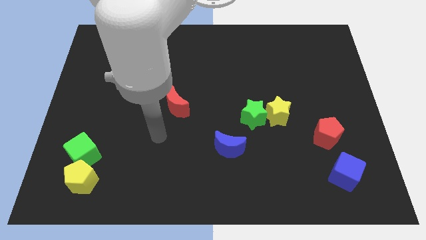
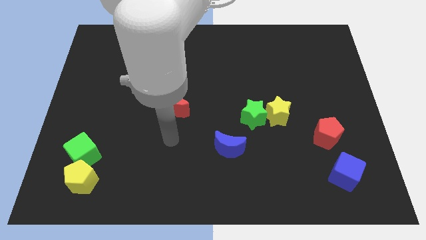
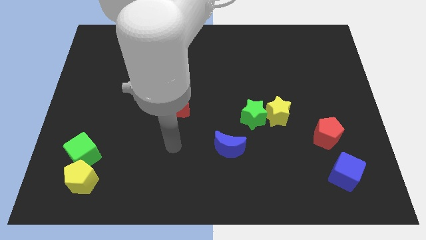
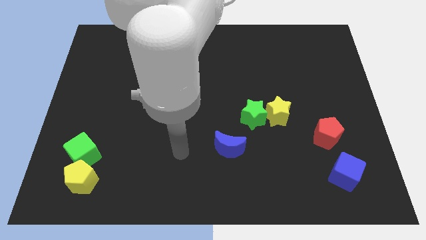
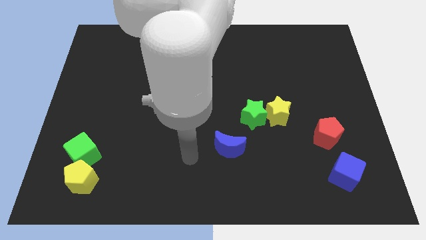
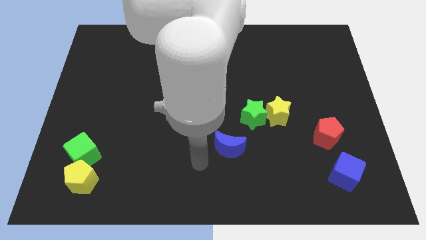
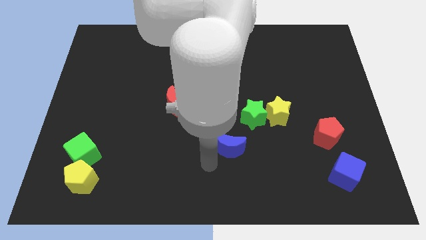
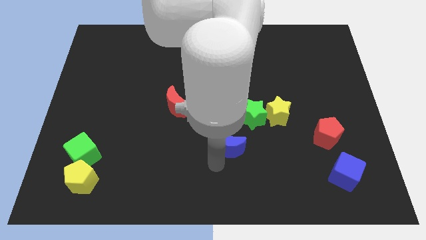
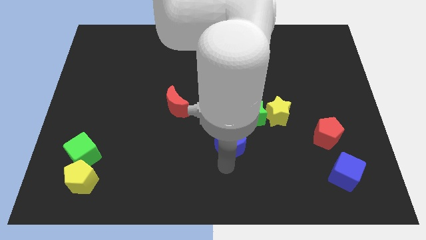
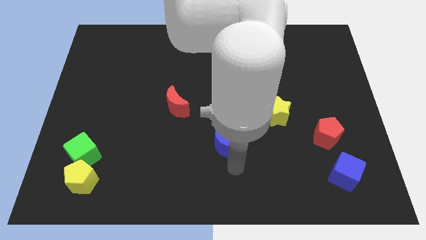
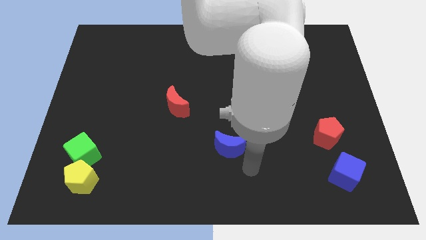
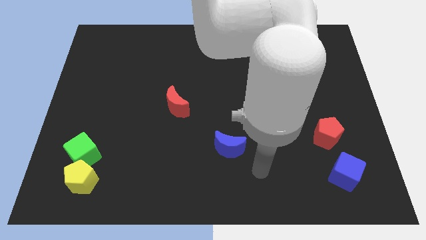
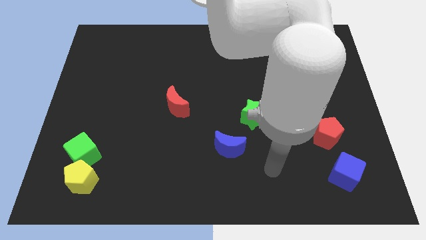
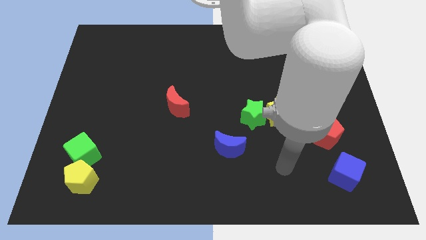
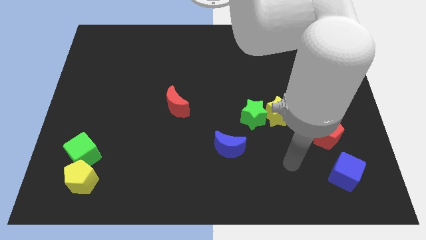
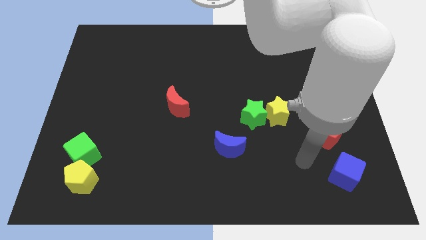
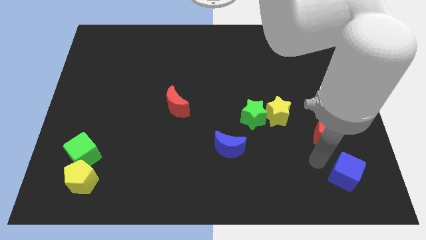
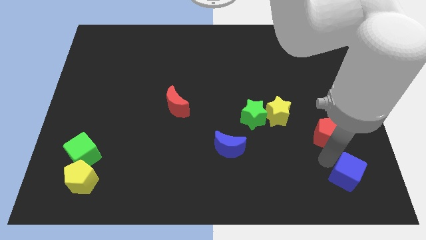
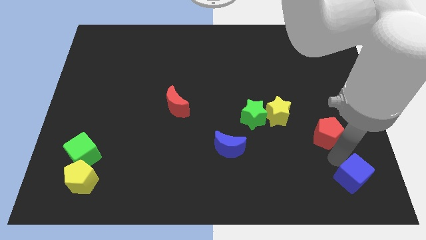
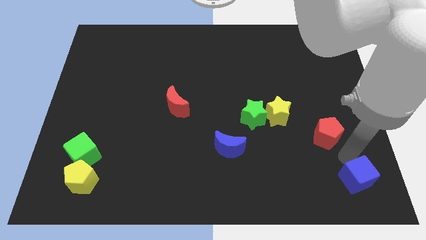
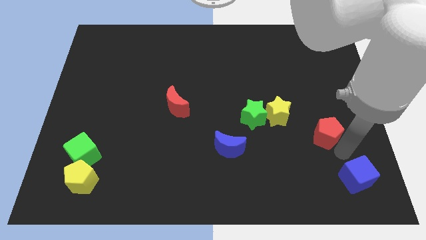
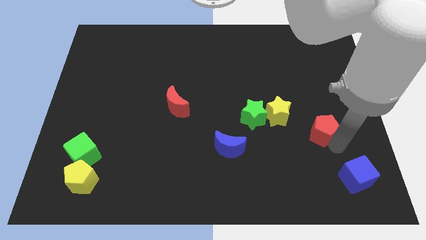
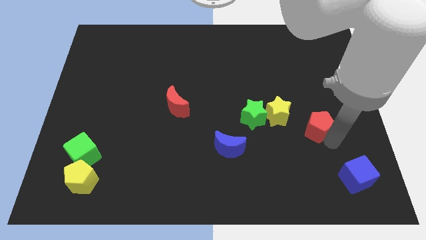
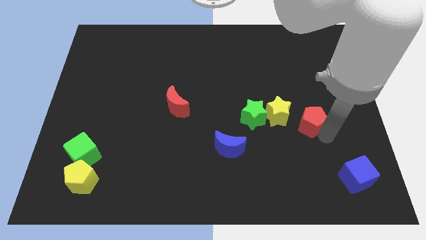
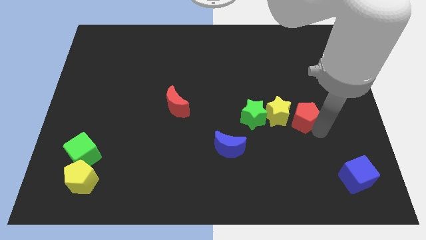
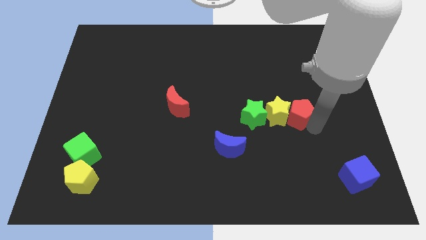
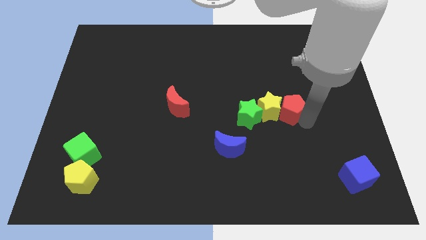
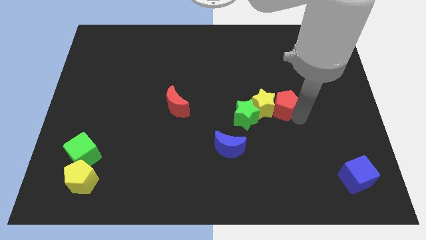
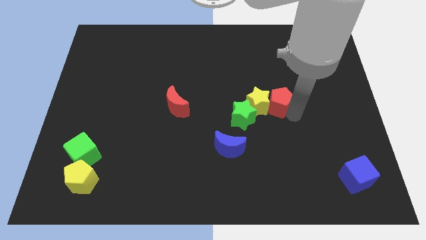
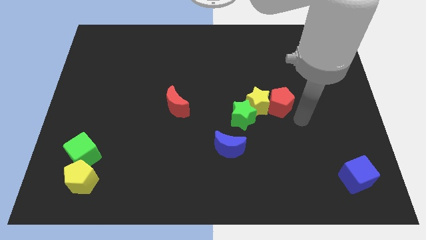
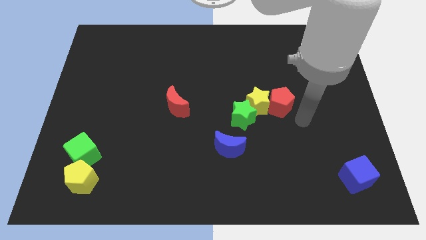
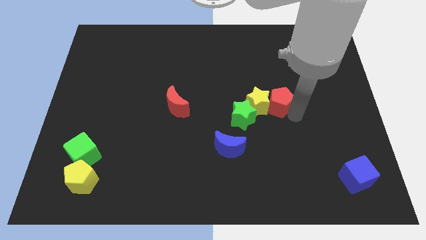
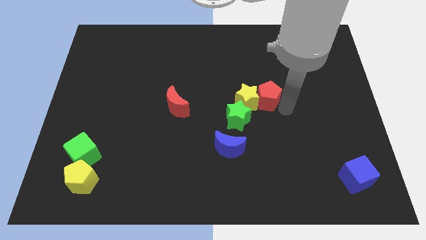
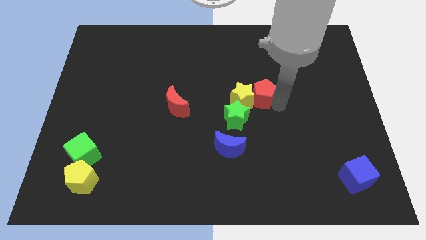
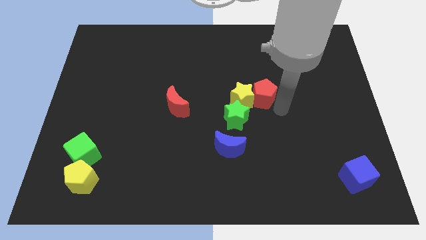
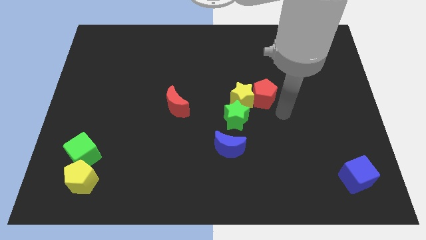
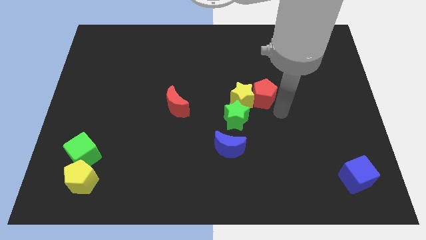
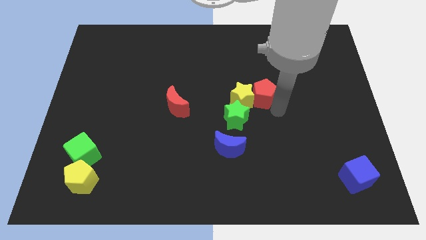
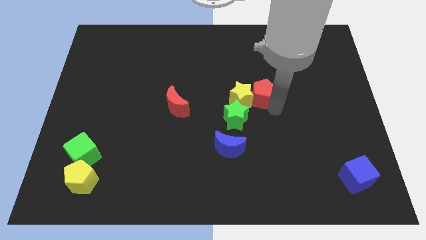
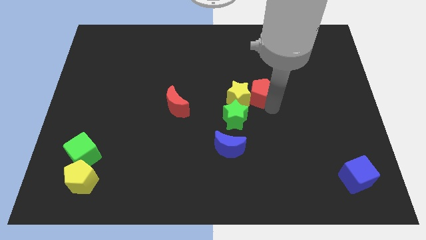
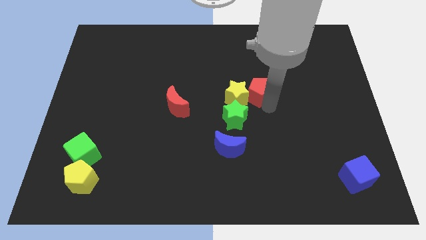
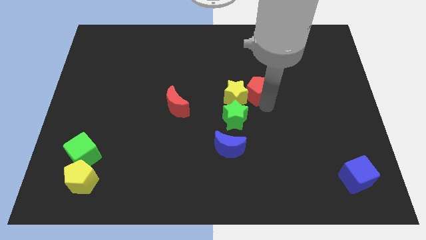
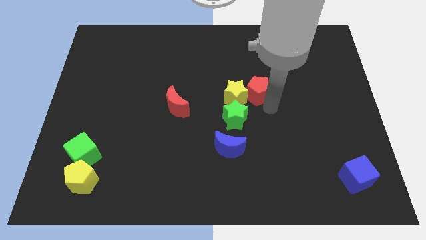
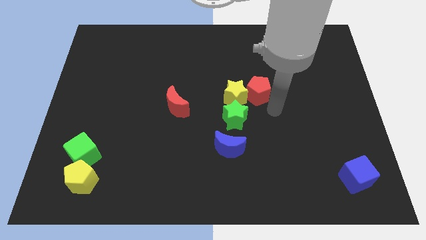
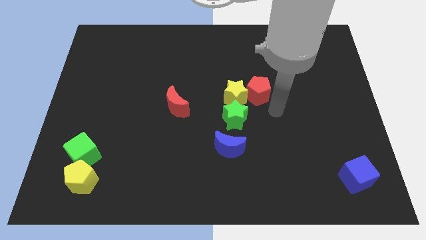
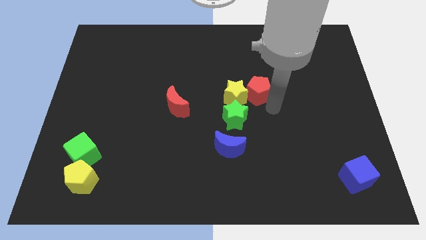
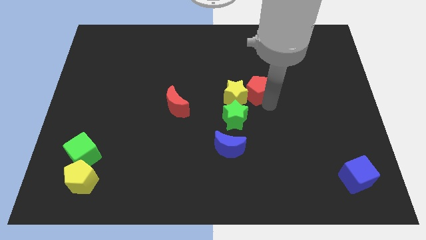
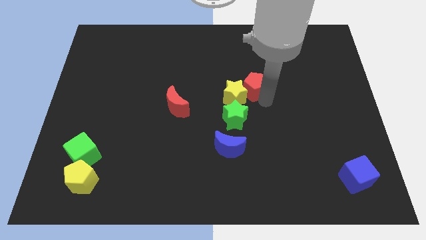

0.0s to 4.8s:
move the red pentagon diagonally up and left

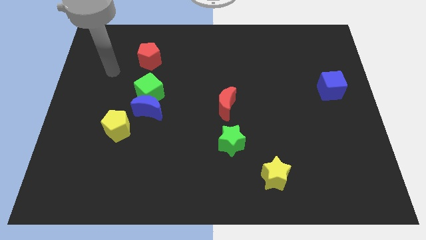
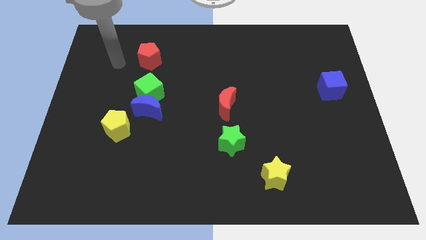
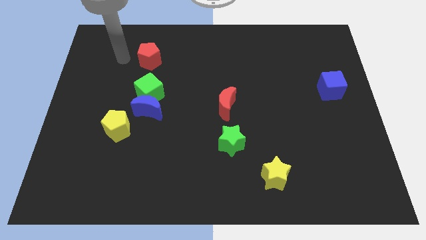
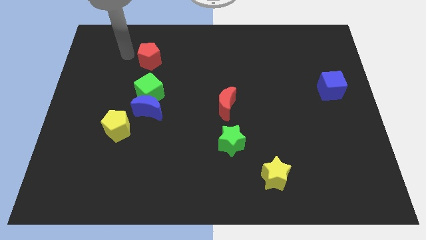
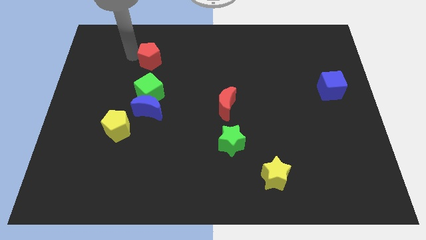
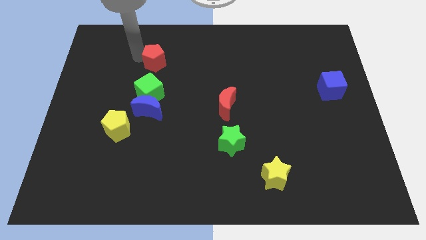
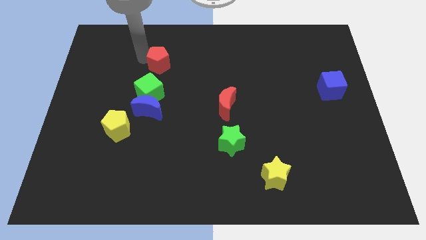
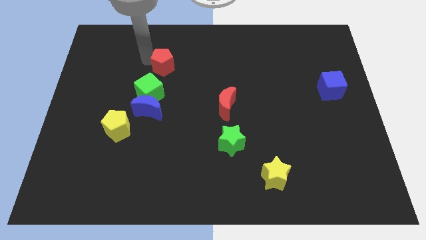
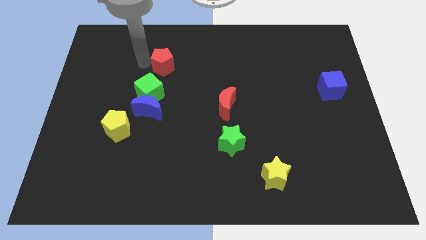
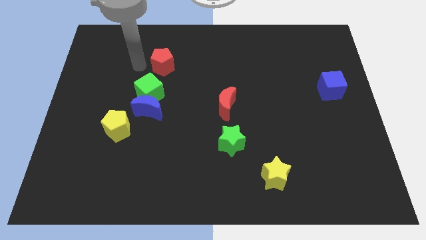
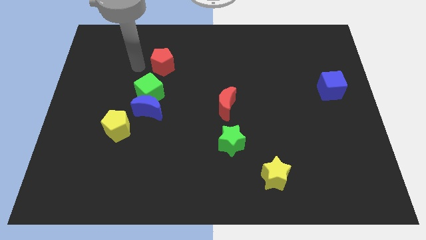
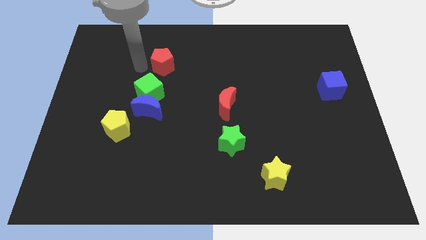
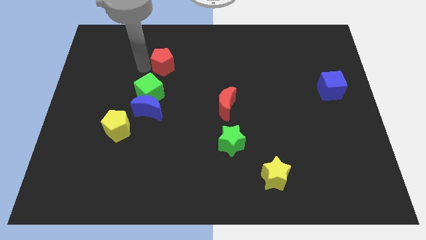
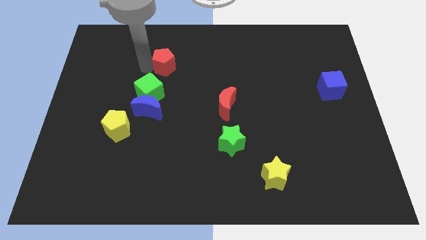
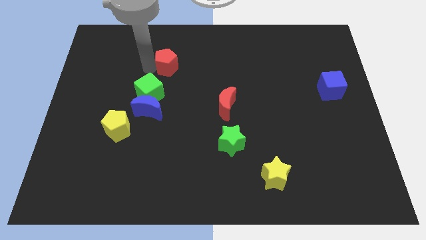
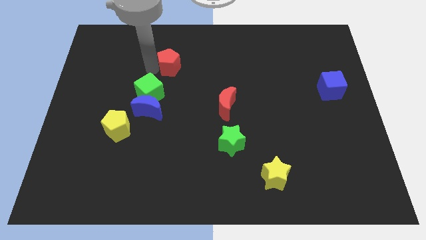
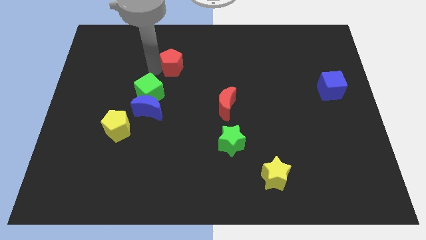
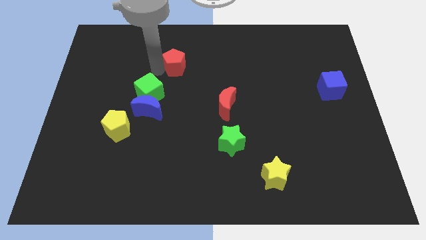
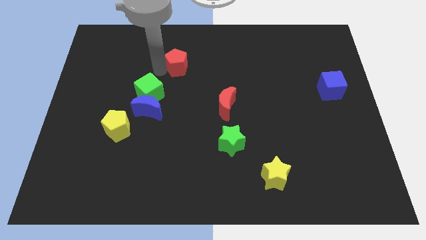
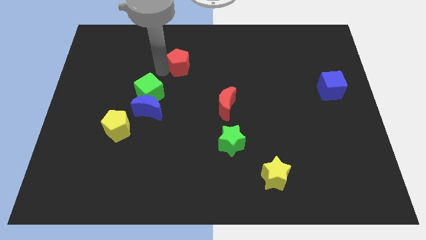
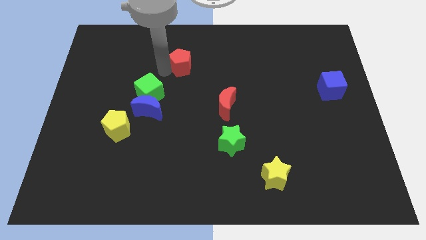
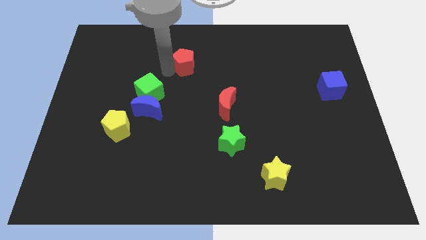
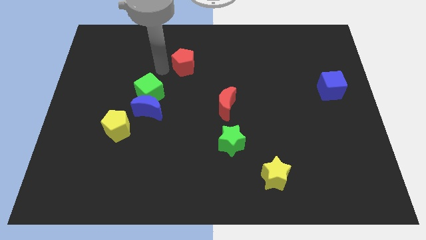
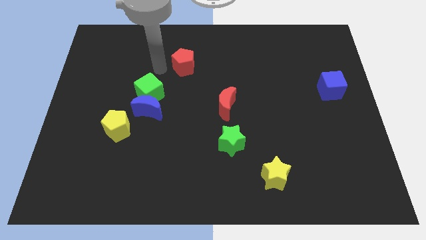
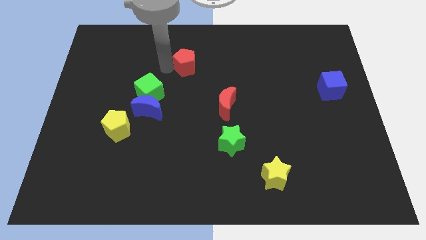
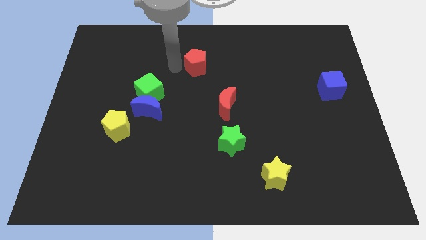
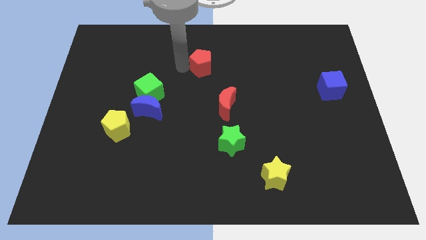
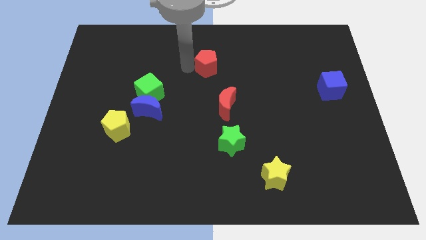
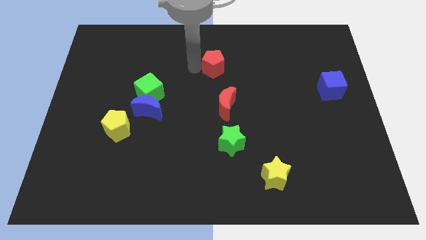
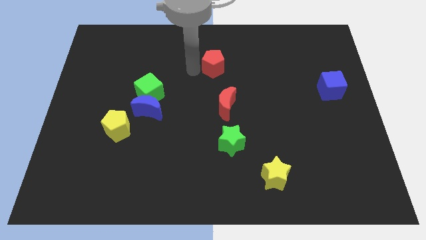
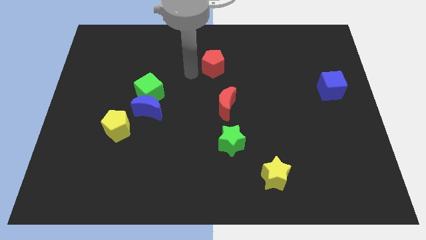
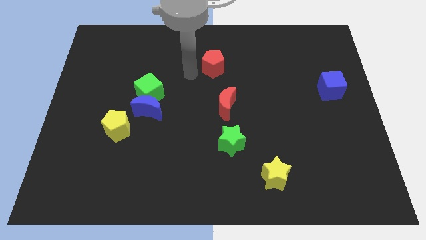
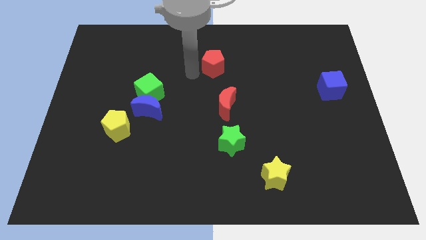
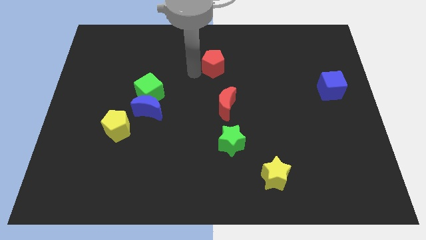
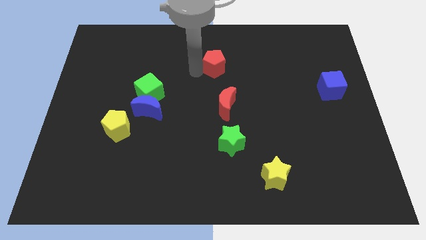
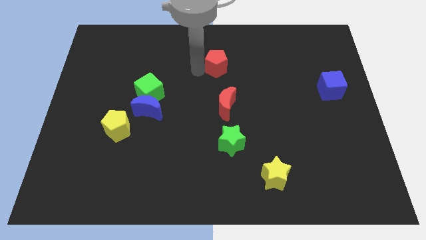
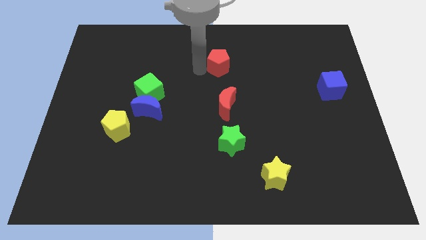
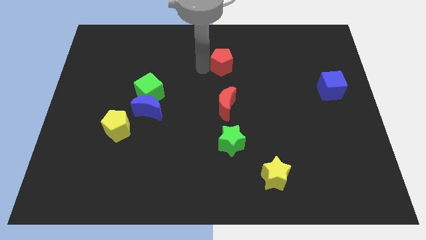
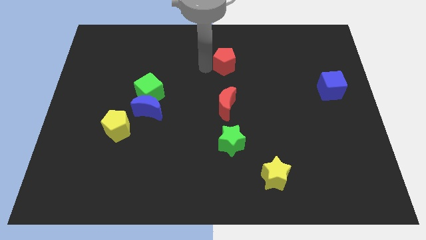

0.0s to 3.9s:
push the red pentagon right

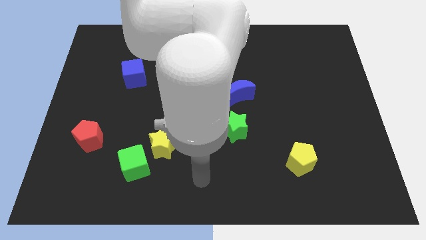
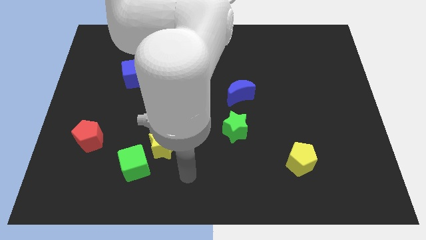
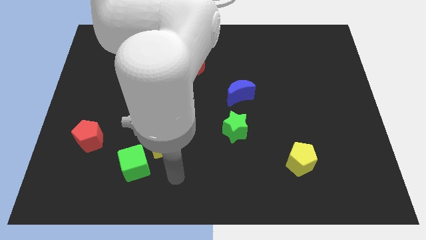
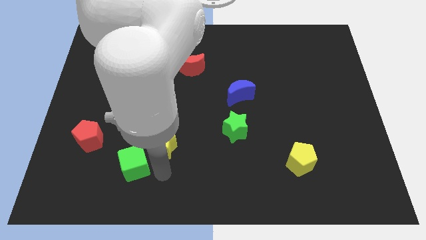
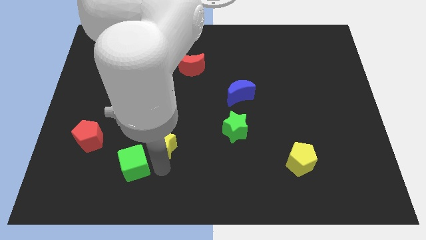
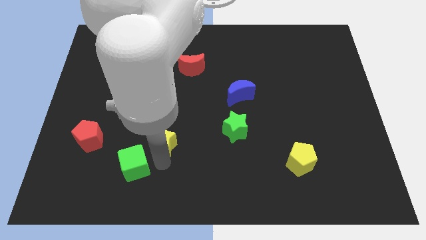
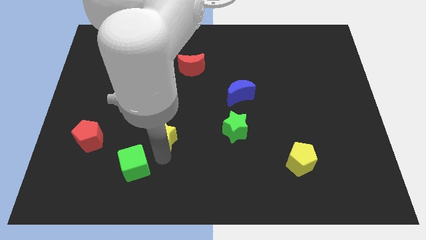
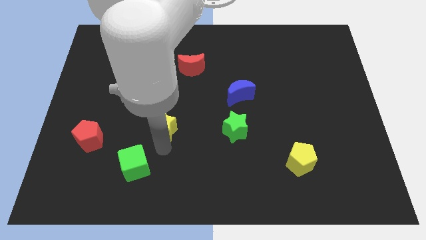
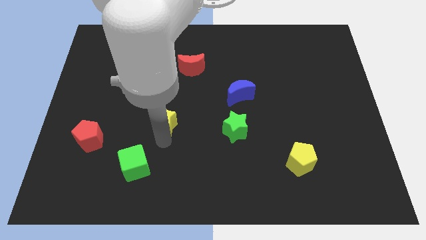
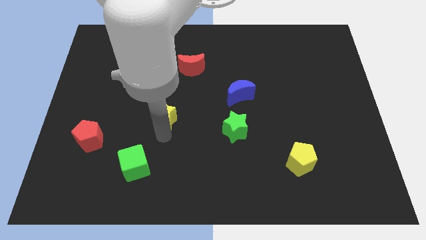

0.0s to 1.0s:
slightly slide the yellow star upwards
